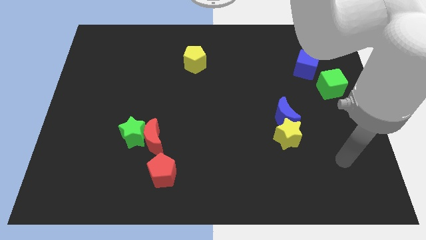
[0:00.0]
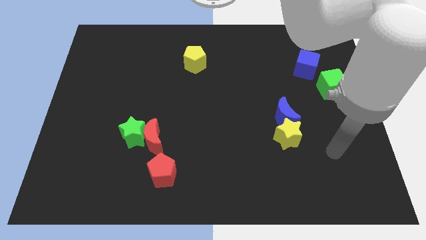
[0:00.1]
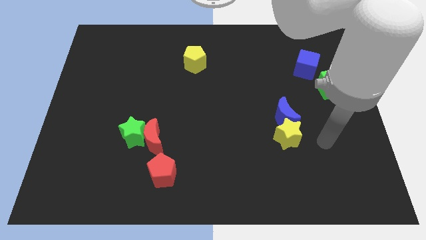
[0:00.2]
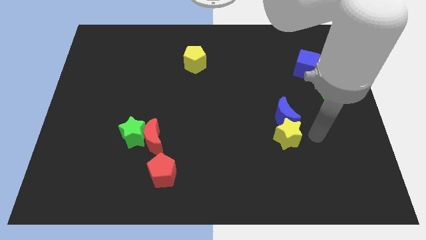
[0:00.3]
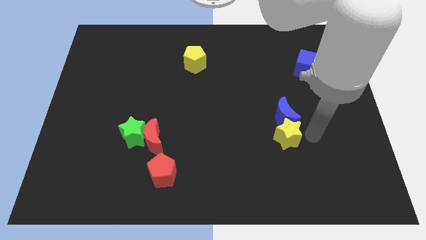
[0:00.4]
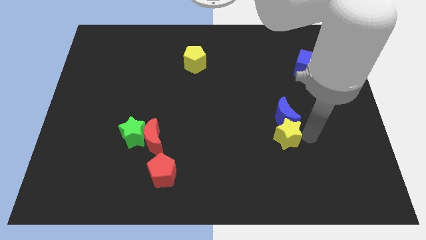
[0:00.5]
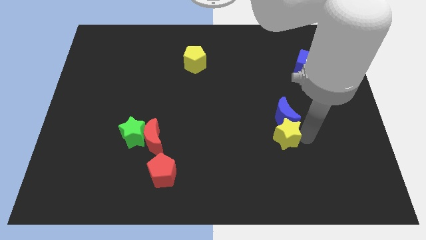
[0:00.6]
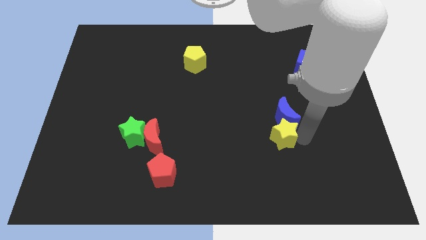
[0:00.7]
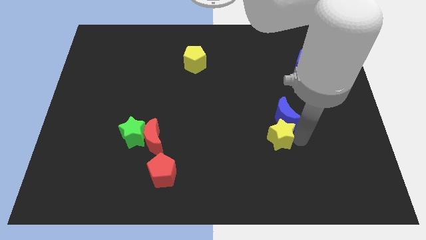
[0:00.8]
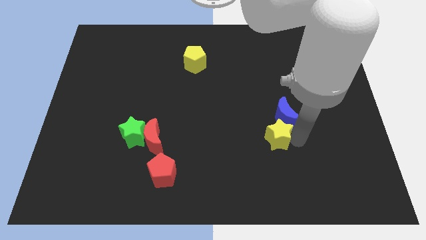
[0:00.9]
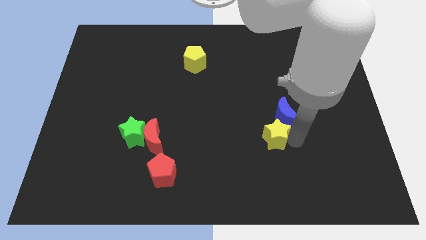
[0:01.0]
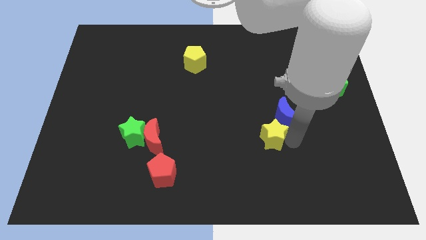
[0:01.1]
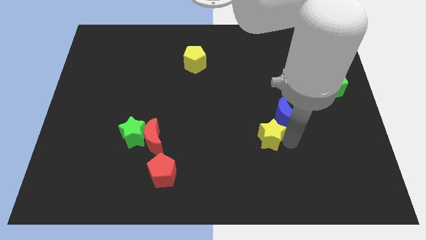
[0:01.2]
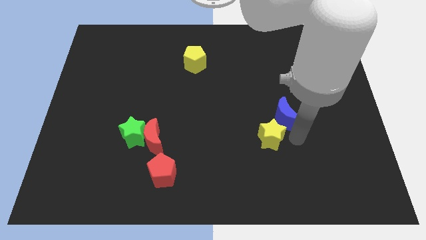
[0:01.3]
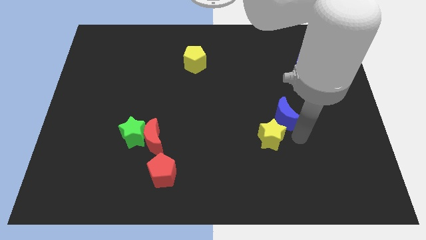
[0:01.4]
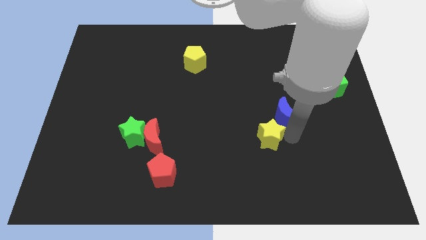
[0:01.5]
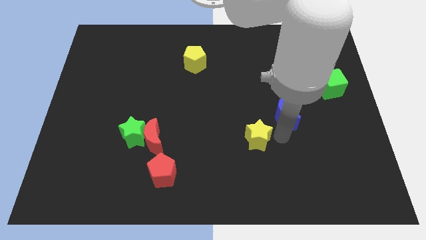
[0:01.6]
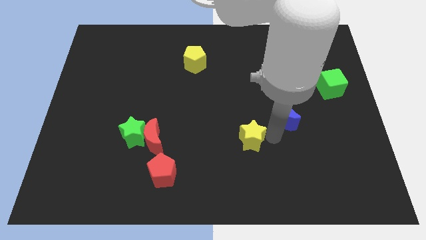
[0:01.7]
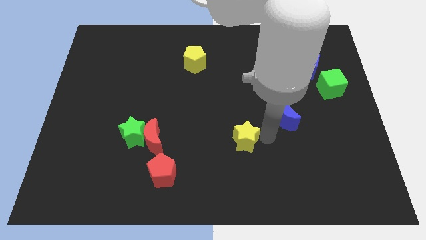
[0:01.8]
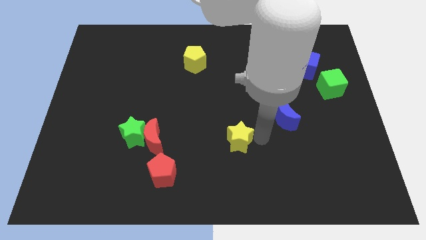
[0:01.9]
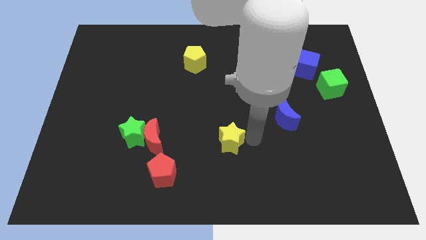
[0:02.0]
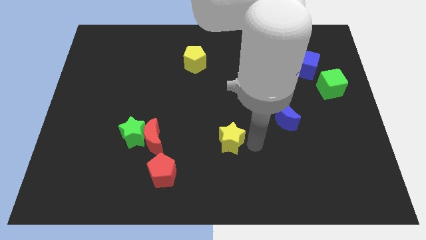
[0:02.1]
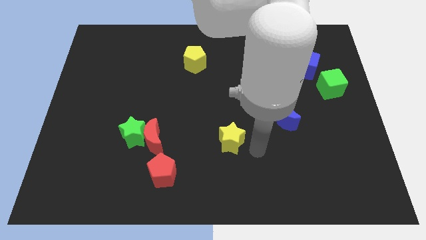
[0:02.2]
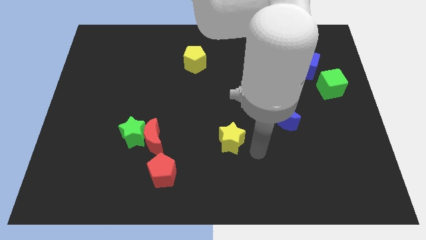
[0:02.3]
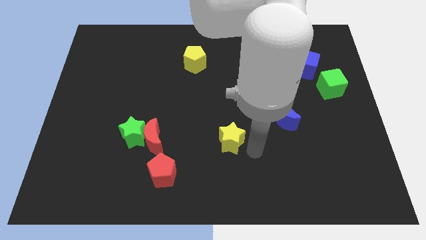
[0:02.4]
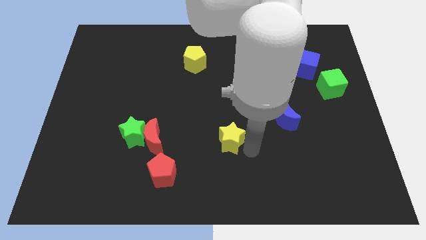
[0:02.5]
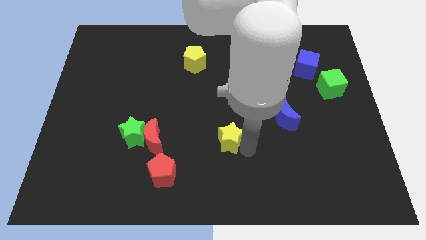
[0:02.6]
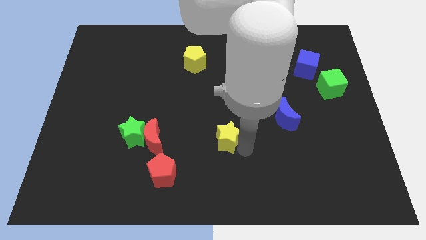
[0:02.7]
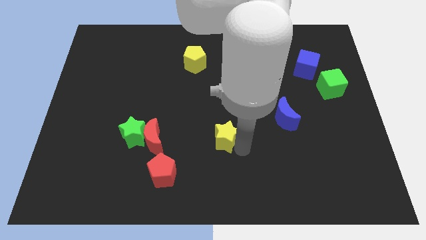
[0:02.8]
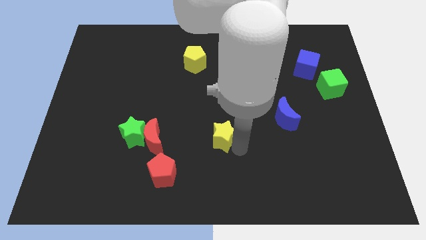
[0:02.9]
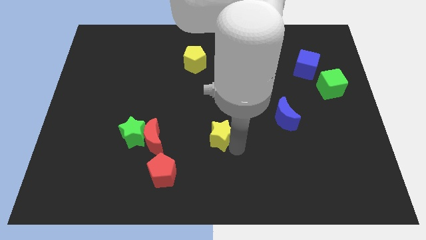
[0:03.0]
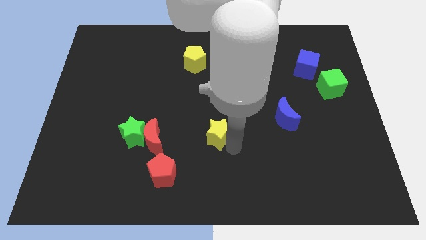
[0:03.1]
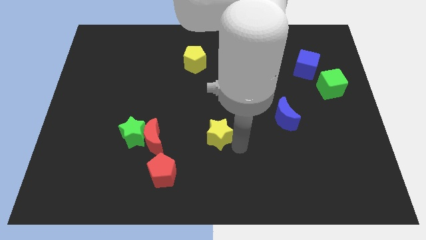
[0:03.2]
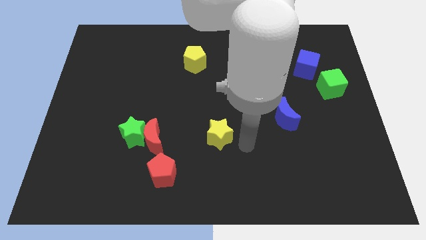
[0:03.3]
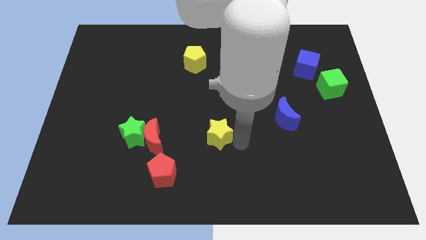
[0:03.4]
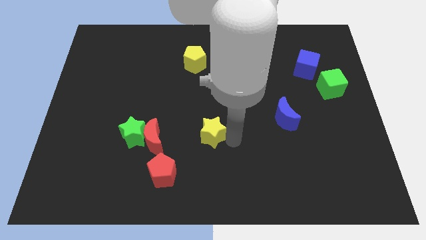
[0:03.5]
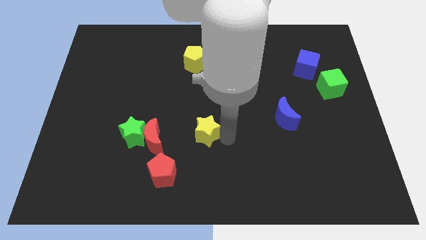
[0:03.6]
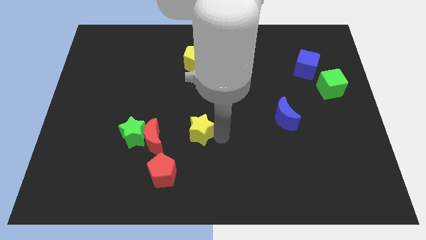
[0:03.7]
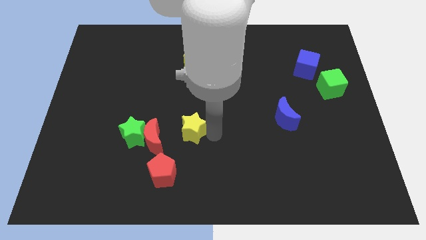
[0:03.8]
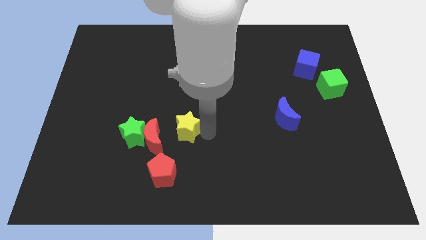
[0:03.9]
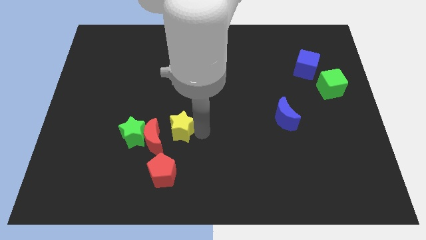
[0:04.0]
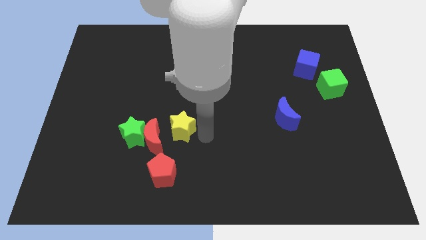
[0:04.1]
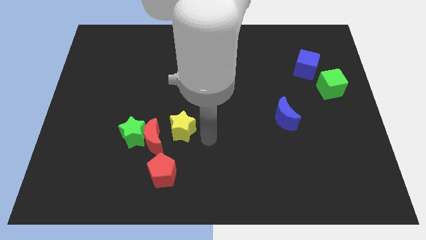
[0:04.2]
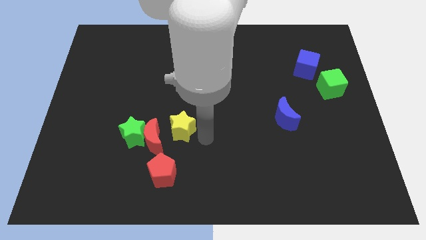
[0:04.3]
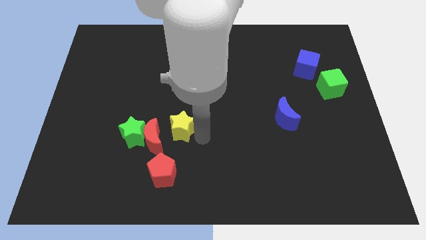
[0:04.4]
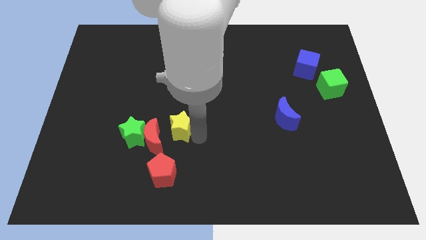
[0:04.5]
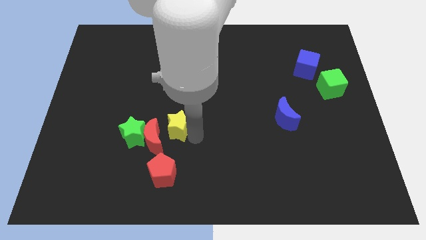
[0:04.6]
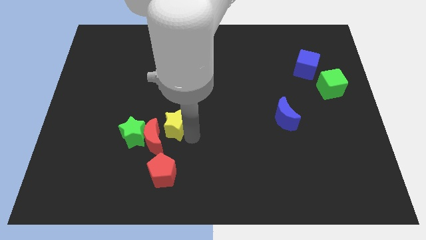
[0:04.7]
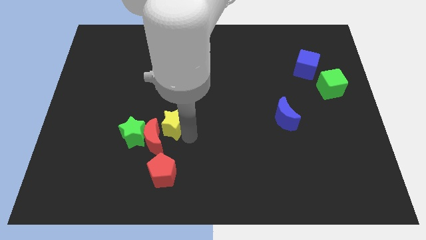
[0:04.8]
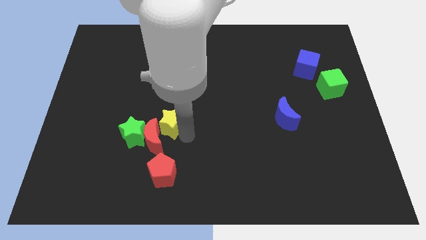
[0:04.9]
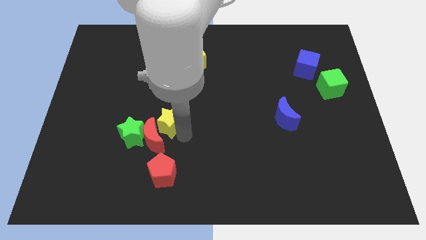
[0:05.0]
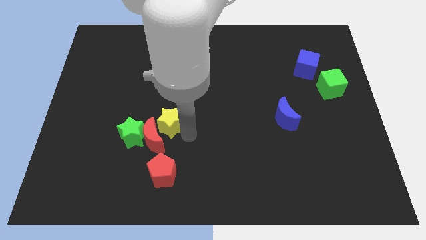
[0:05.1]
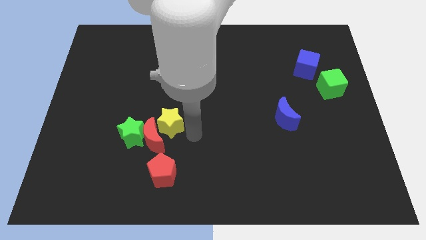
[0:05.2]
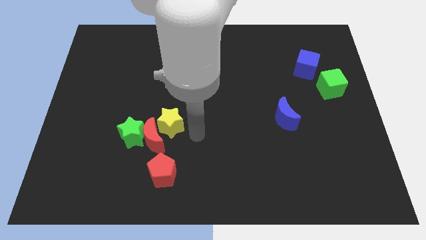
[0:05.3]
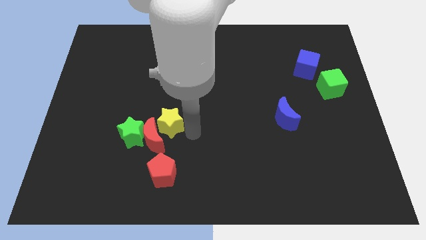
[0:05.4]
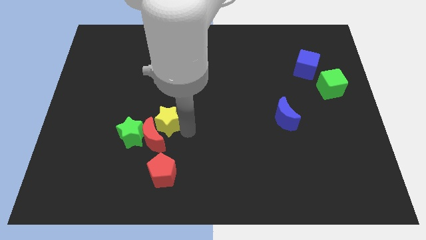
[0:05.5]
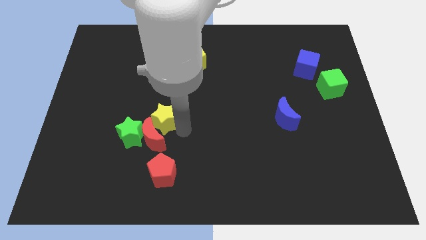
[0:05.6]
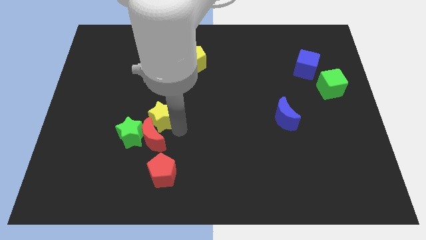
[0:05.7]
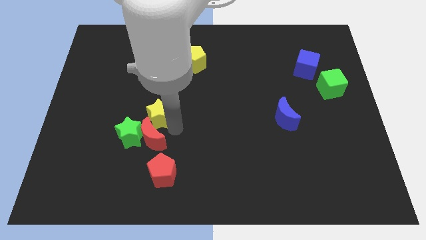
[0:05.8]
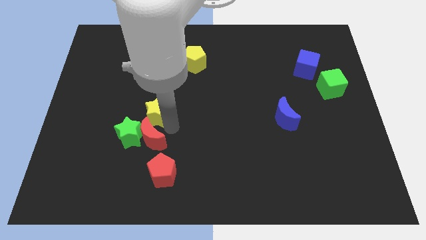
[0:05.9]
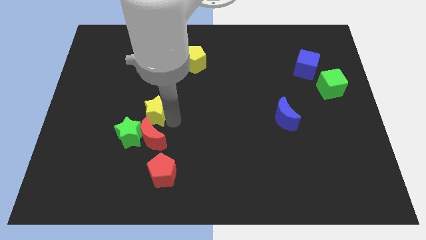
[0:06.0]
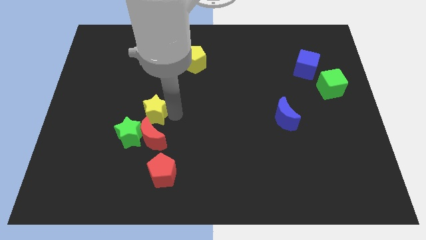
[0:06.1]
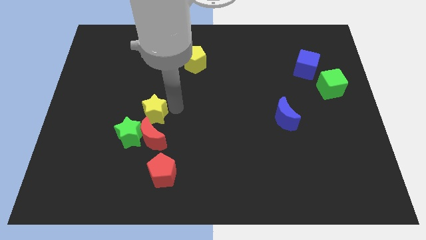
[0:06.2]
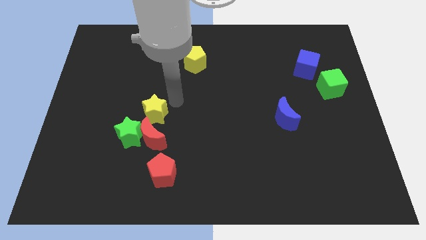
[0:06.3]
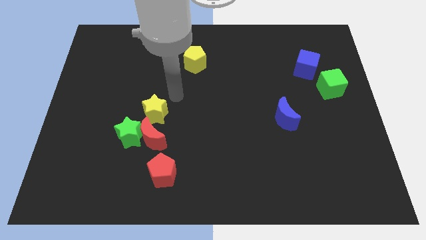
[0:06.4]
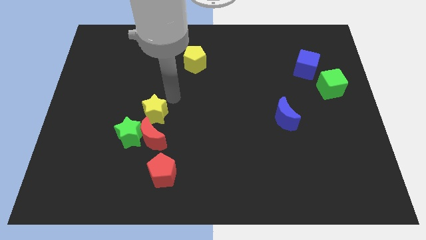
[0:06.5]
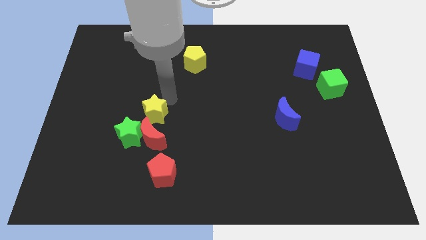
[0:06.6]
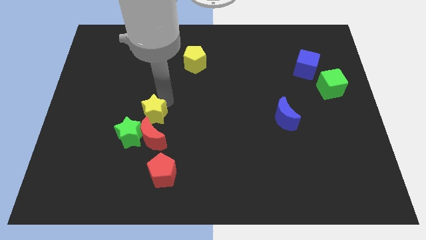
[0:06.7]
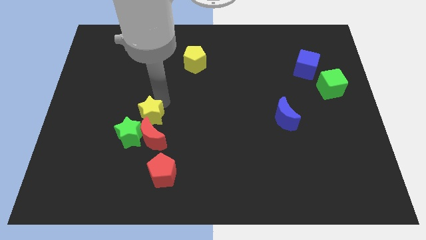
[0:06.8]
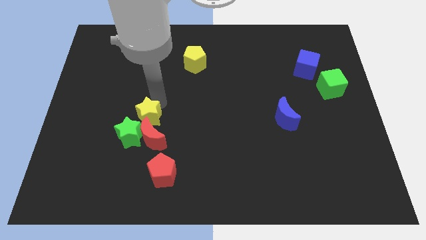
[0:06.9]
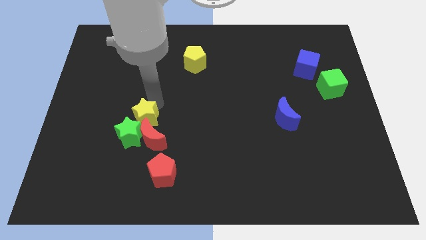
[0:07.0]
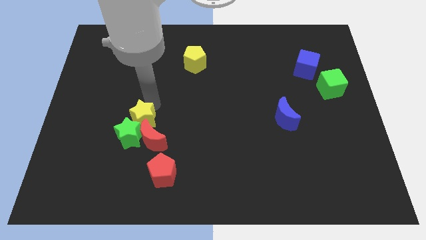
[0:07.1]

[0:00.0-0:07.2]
move the yellow star close to the green star

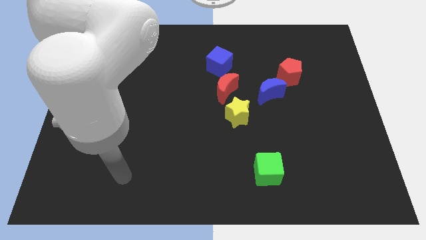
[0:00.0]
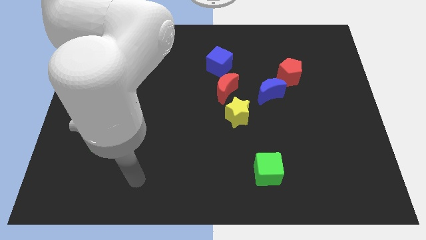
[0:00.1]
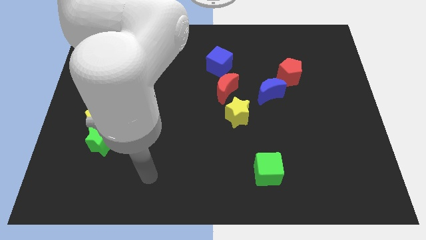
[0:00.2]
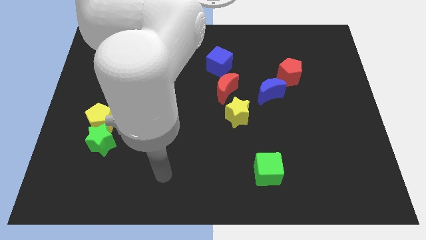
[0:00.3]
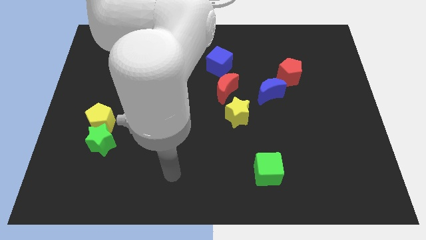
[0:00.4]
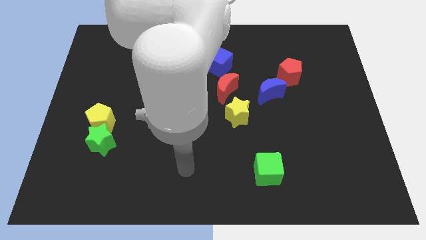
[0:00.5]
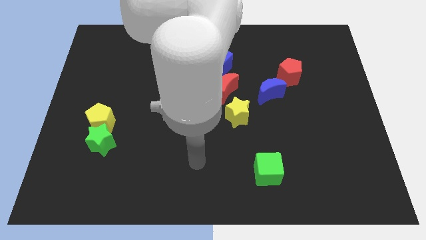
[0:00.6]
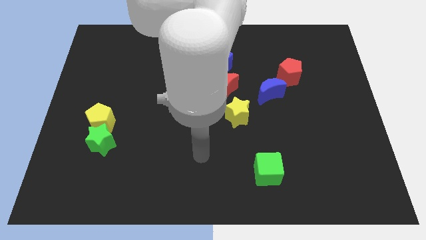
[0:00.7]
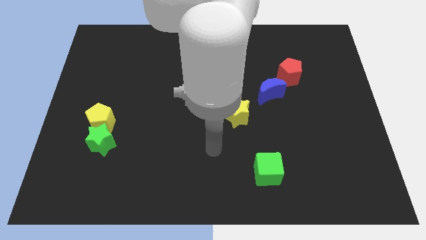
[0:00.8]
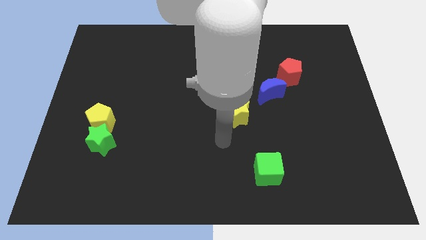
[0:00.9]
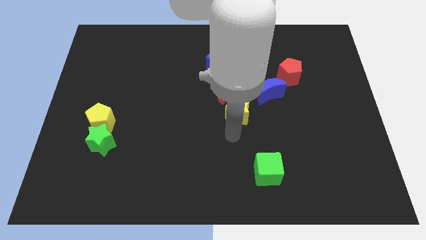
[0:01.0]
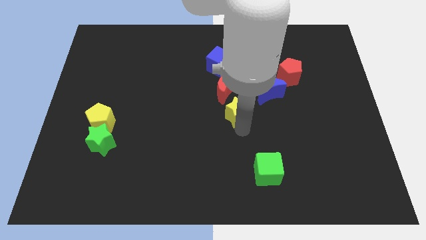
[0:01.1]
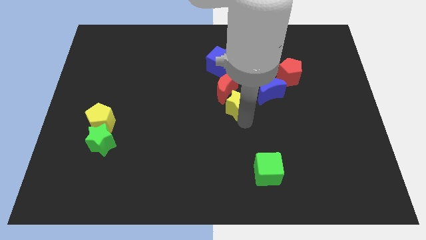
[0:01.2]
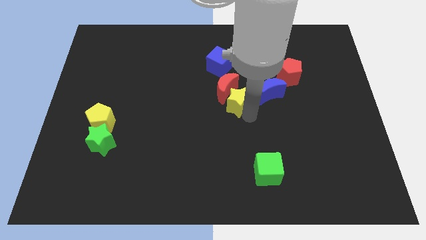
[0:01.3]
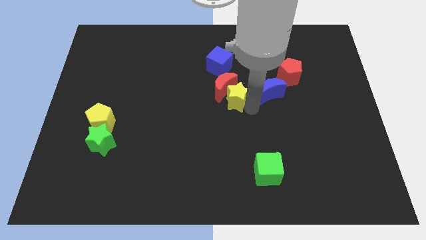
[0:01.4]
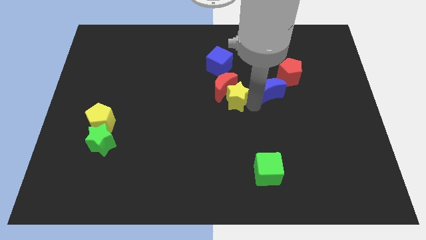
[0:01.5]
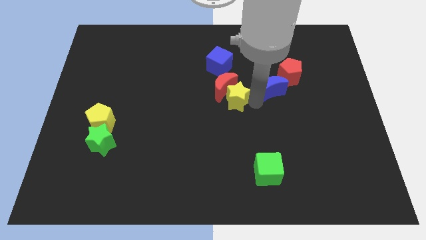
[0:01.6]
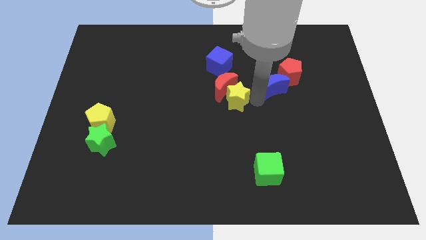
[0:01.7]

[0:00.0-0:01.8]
put the blue moon to the red pentagon
